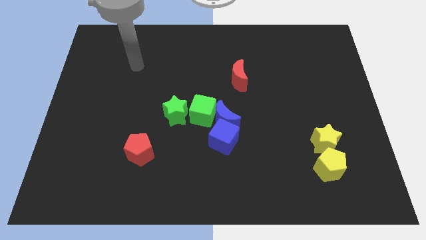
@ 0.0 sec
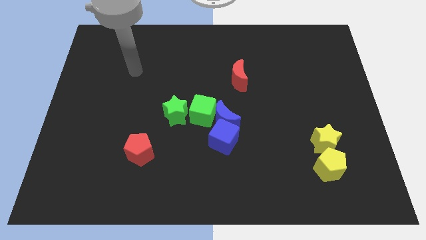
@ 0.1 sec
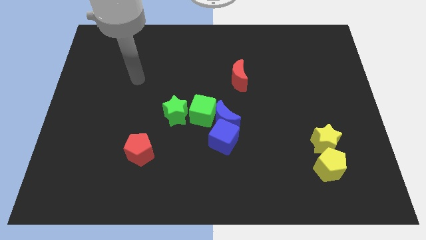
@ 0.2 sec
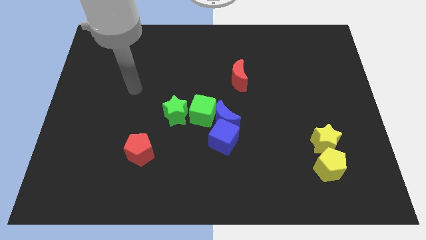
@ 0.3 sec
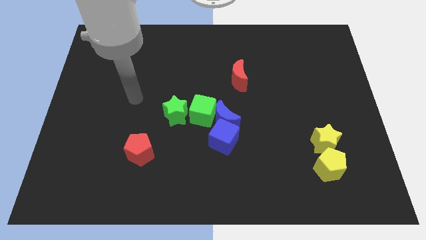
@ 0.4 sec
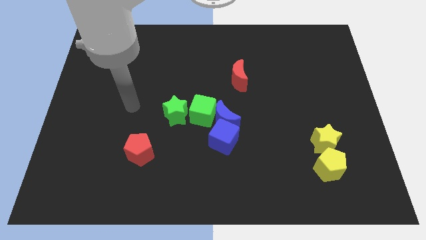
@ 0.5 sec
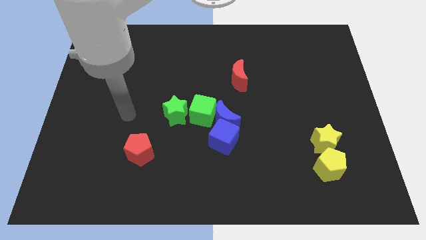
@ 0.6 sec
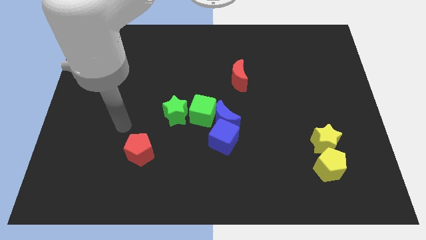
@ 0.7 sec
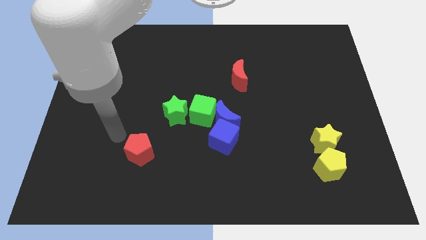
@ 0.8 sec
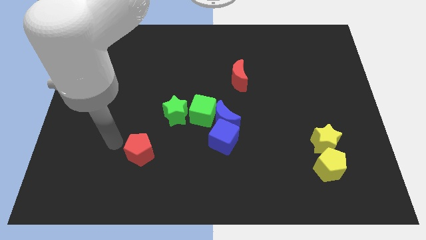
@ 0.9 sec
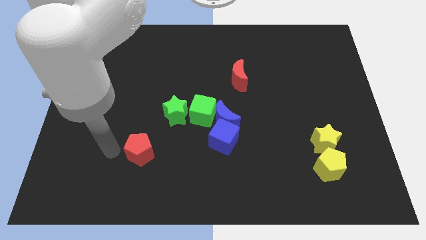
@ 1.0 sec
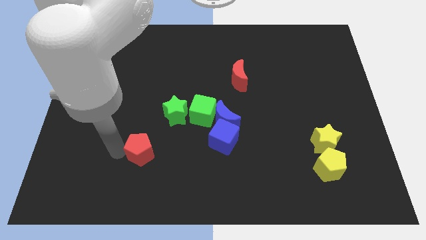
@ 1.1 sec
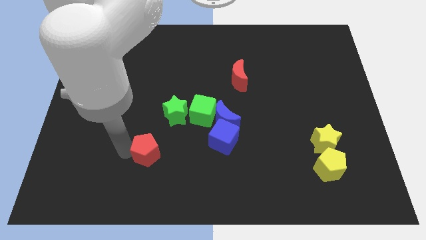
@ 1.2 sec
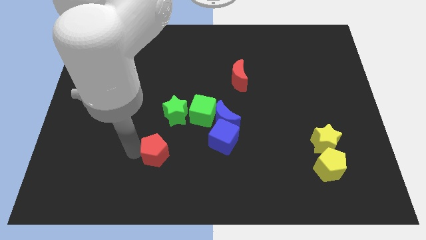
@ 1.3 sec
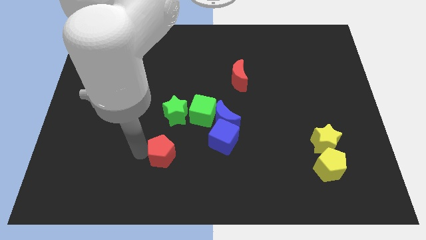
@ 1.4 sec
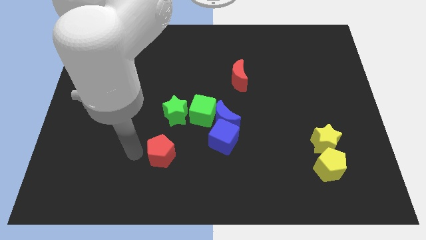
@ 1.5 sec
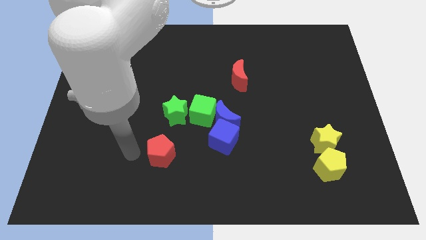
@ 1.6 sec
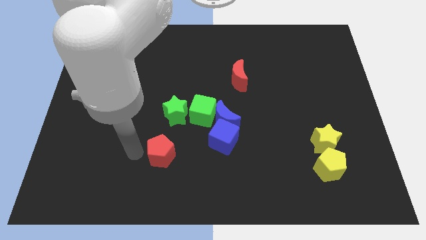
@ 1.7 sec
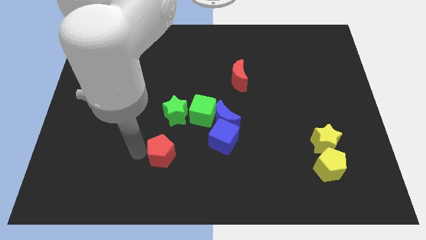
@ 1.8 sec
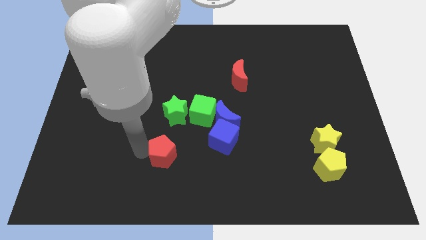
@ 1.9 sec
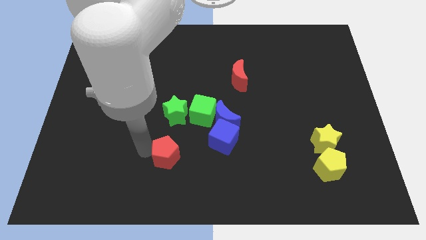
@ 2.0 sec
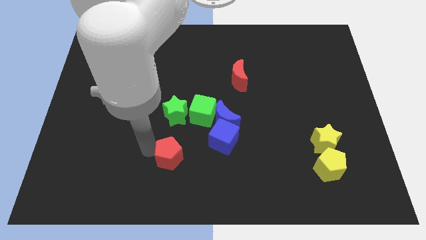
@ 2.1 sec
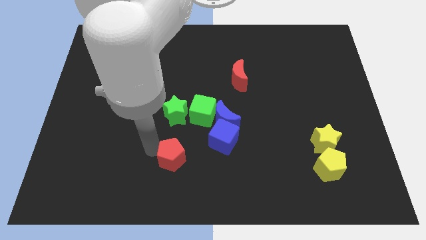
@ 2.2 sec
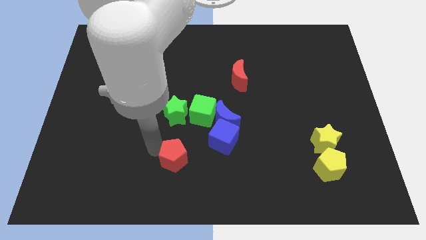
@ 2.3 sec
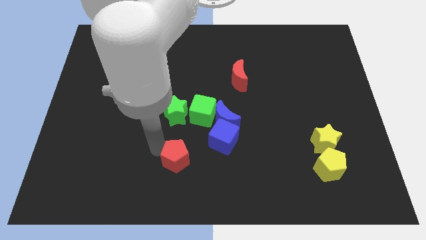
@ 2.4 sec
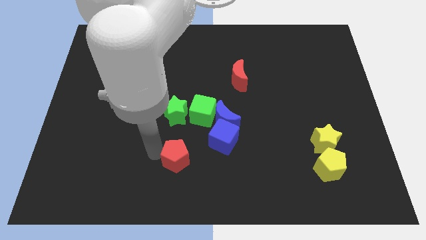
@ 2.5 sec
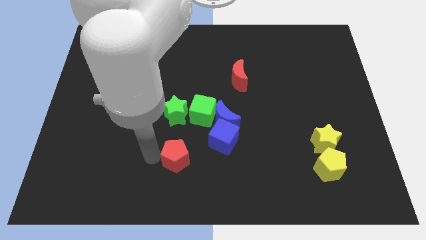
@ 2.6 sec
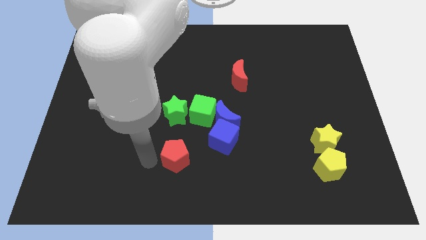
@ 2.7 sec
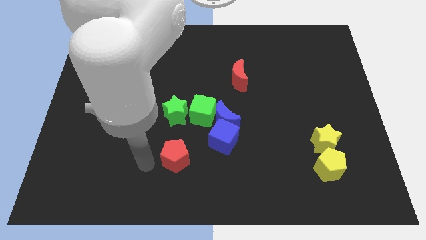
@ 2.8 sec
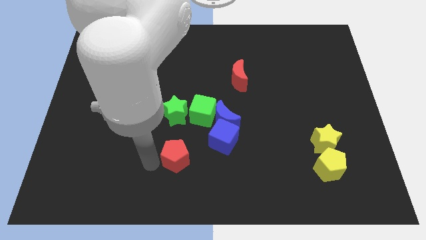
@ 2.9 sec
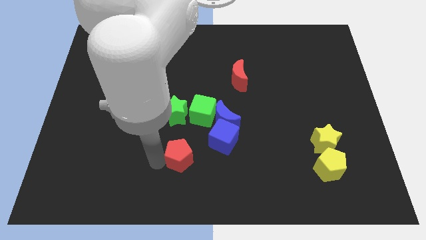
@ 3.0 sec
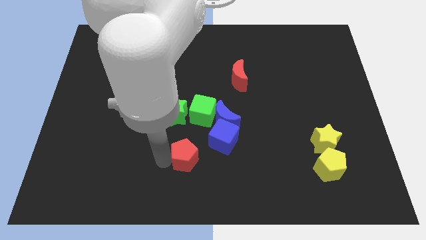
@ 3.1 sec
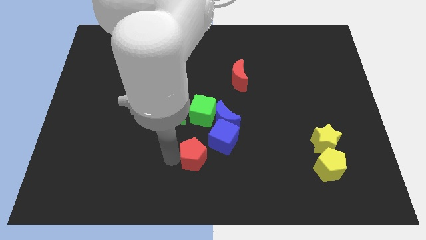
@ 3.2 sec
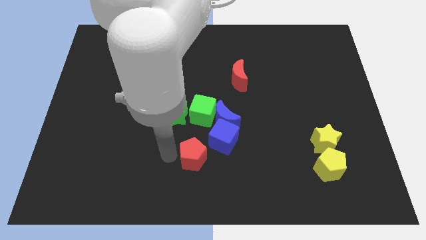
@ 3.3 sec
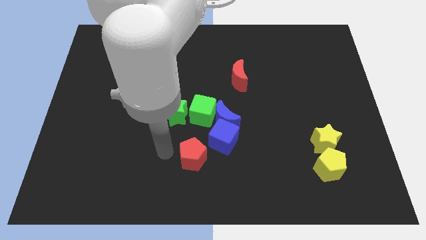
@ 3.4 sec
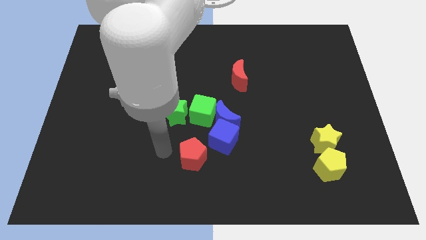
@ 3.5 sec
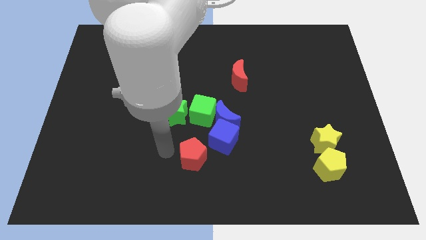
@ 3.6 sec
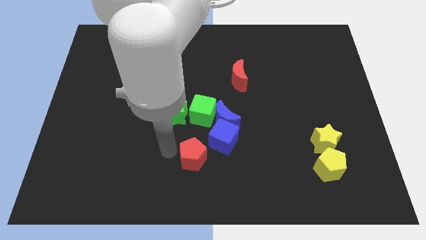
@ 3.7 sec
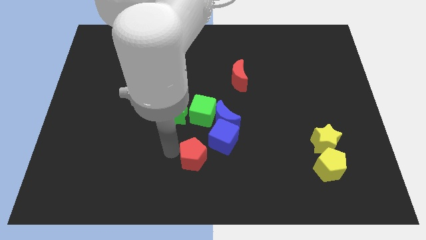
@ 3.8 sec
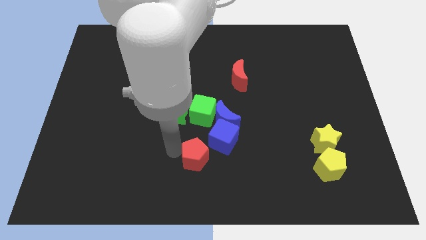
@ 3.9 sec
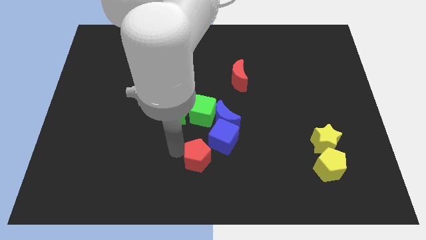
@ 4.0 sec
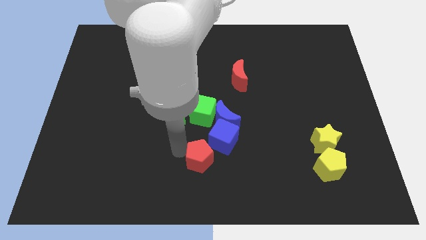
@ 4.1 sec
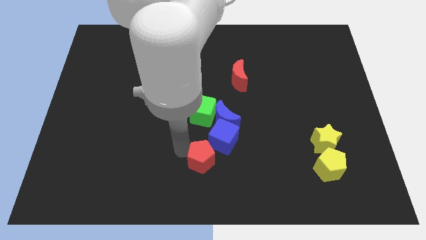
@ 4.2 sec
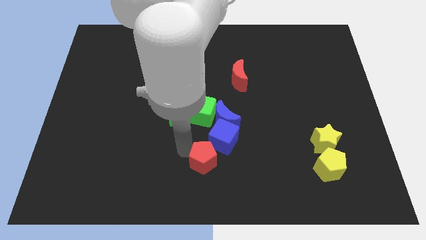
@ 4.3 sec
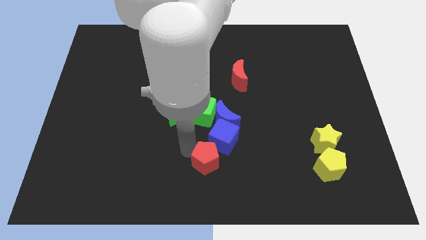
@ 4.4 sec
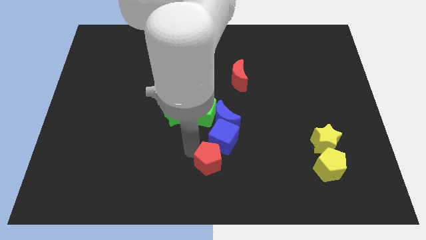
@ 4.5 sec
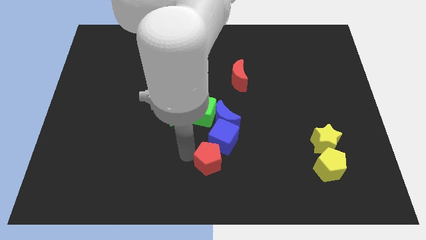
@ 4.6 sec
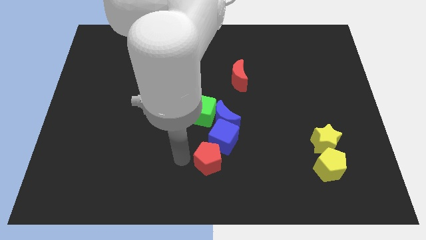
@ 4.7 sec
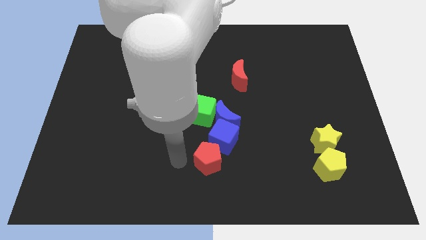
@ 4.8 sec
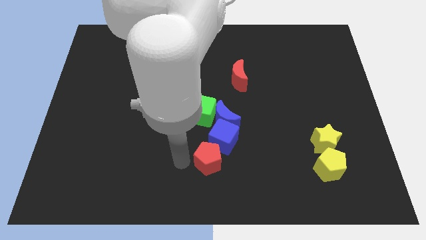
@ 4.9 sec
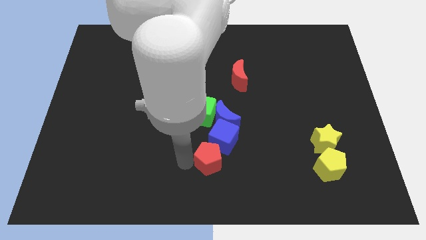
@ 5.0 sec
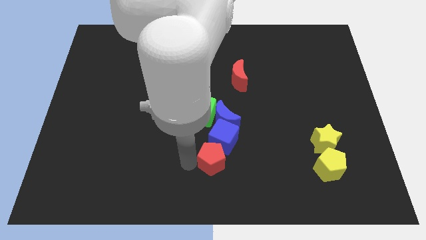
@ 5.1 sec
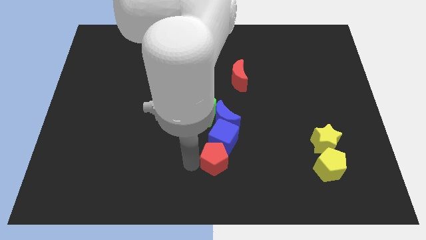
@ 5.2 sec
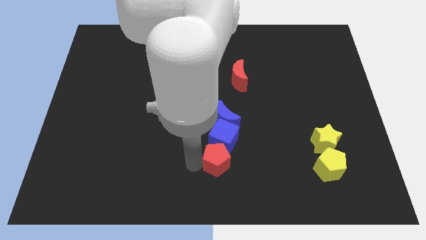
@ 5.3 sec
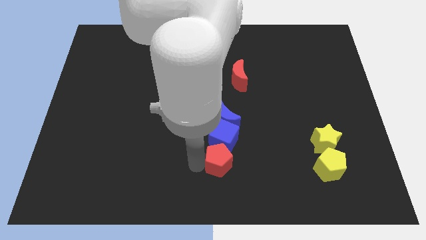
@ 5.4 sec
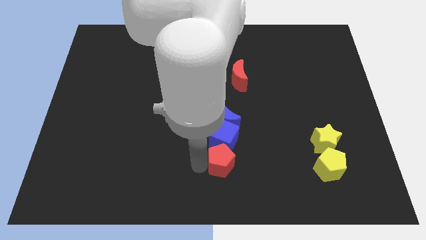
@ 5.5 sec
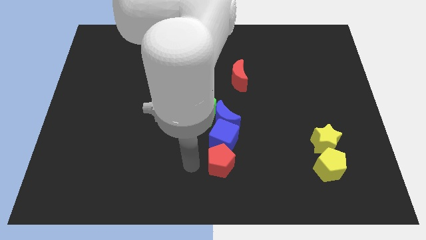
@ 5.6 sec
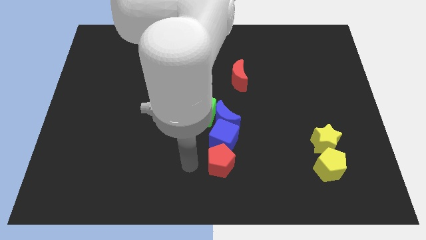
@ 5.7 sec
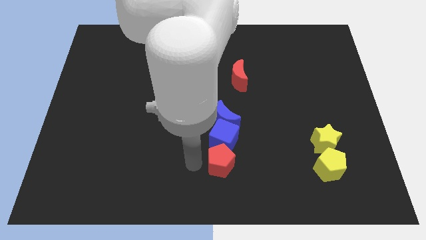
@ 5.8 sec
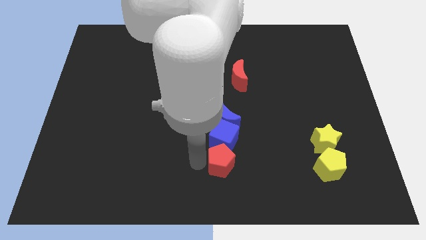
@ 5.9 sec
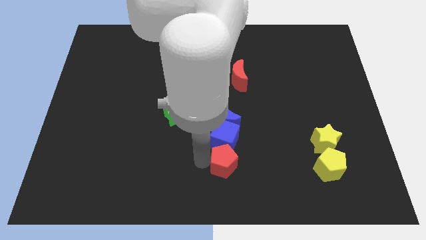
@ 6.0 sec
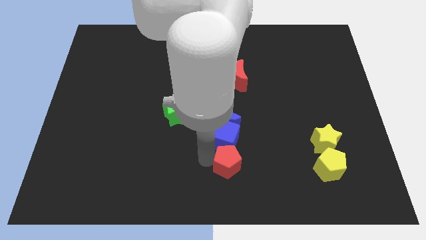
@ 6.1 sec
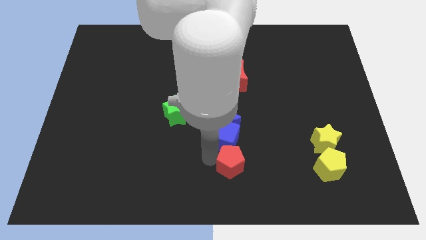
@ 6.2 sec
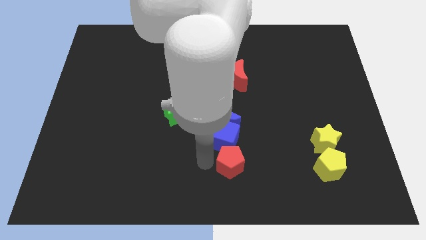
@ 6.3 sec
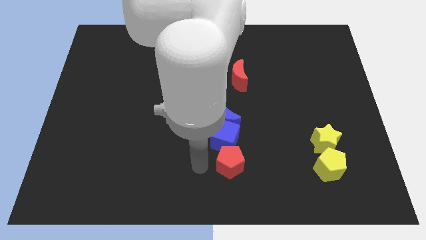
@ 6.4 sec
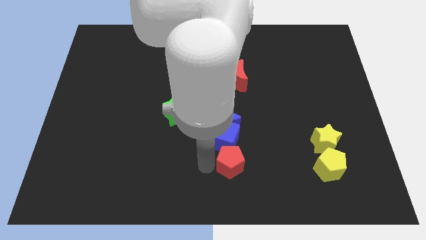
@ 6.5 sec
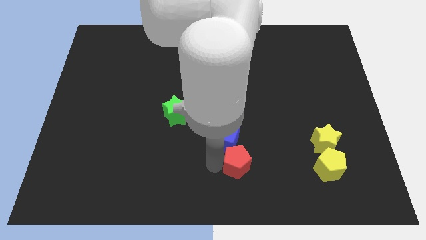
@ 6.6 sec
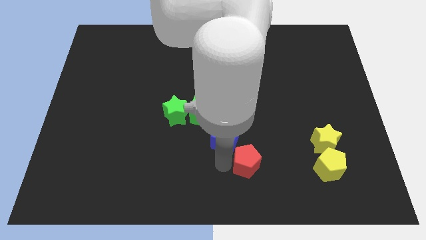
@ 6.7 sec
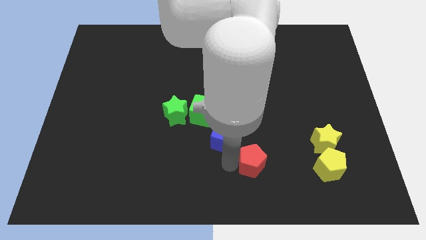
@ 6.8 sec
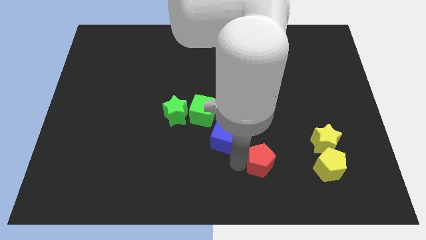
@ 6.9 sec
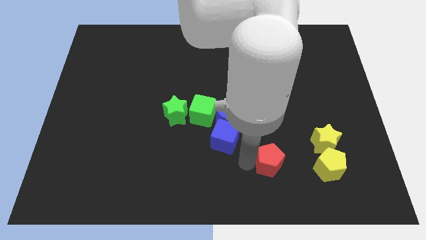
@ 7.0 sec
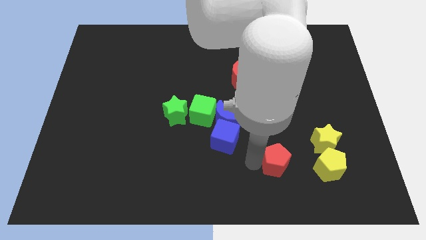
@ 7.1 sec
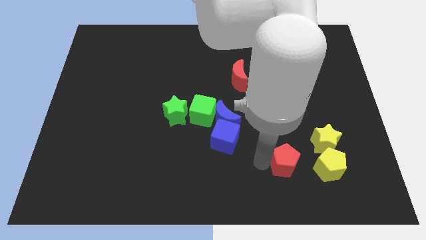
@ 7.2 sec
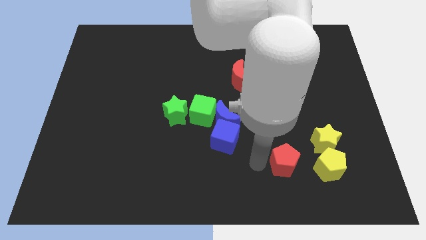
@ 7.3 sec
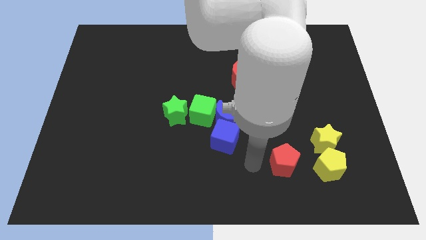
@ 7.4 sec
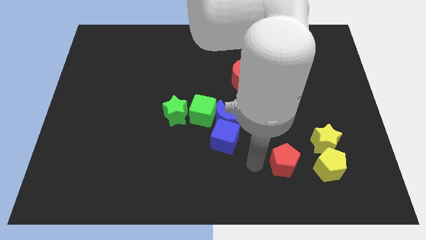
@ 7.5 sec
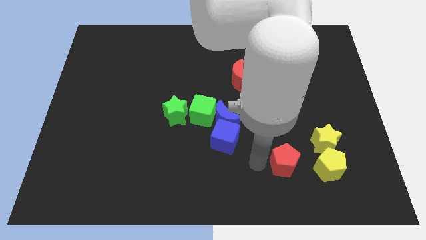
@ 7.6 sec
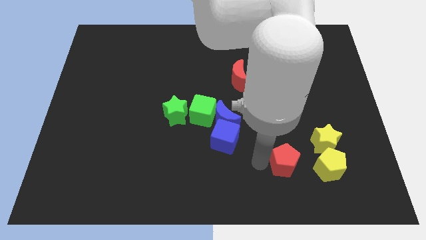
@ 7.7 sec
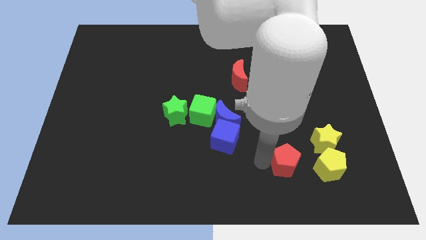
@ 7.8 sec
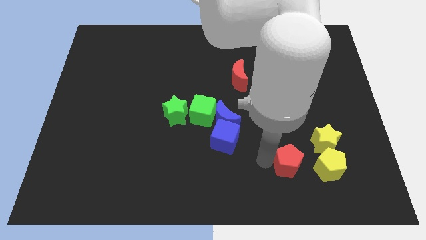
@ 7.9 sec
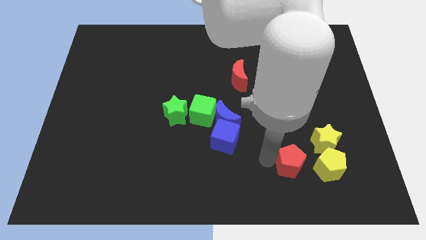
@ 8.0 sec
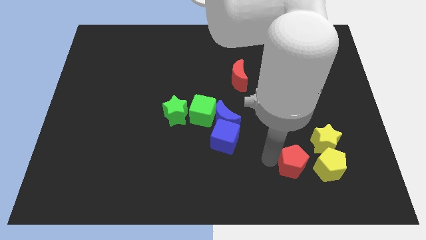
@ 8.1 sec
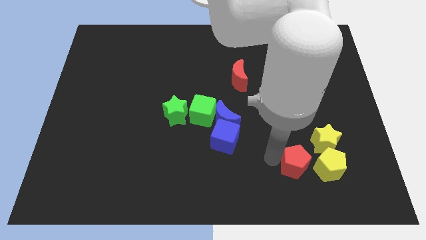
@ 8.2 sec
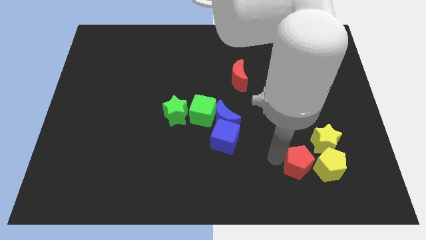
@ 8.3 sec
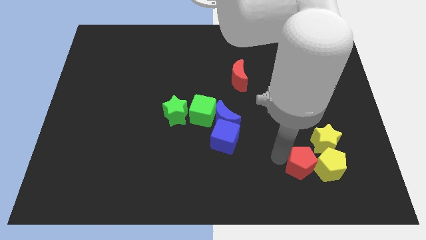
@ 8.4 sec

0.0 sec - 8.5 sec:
push the red pentagon close to the yellow pentagon
